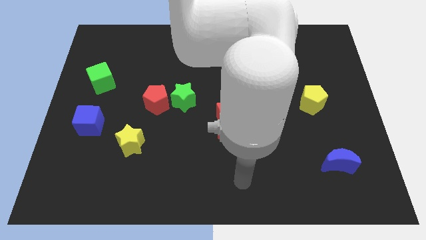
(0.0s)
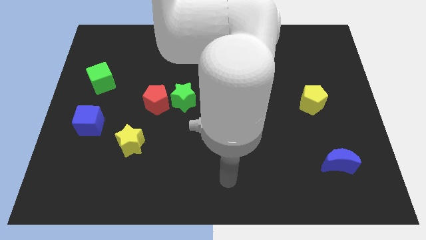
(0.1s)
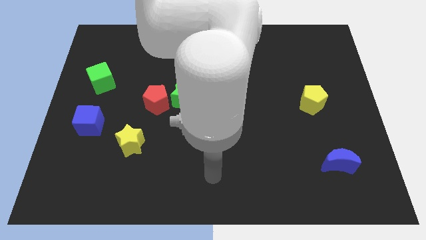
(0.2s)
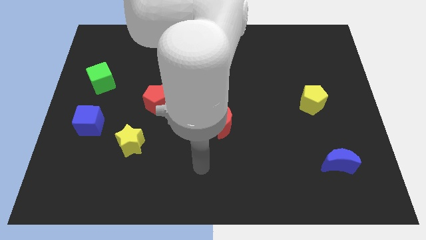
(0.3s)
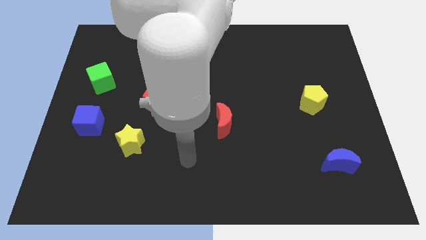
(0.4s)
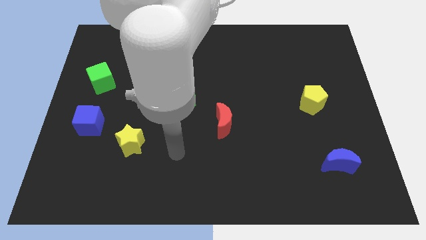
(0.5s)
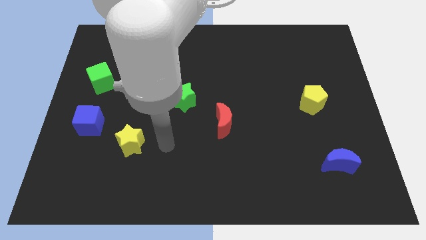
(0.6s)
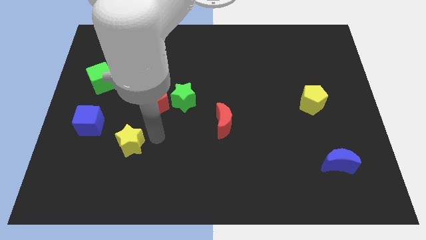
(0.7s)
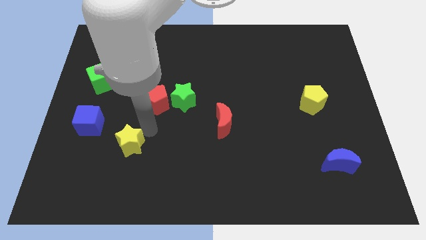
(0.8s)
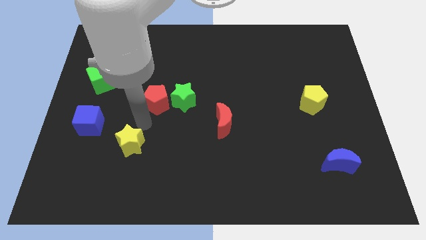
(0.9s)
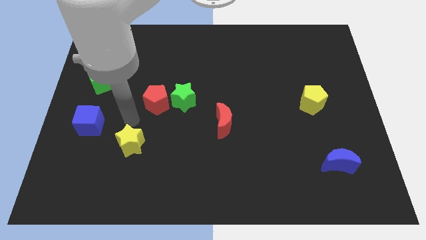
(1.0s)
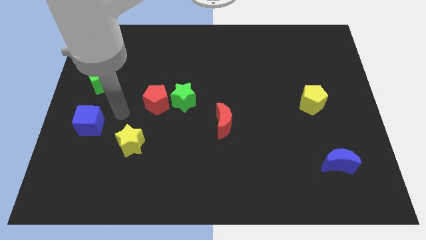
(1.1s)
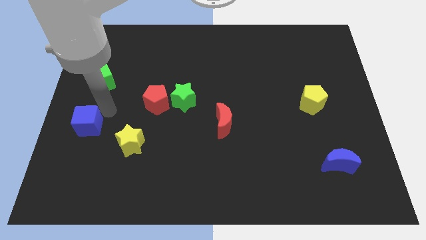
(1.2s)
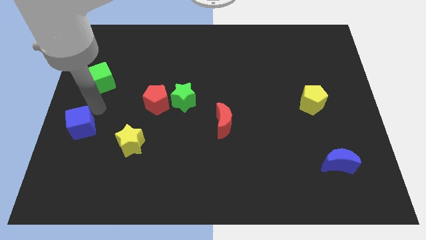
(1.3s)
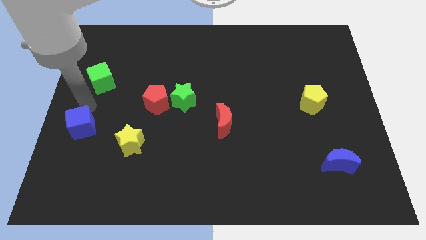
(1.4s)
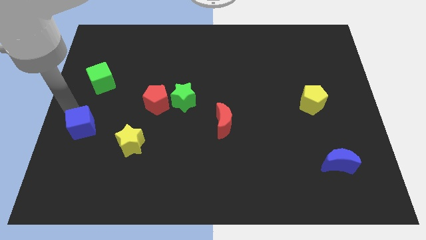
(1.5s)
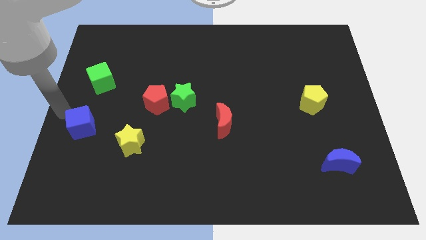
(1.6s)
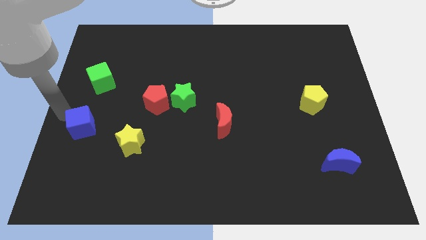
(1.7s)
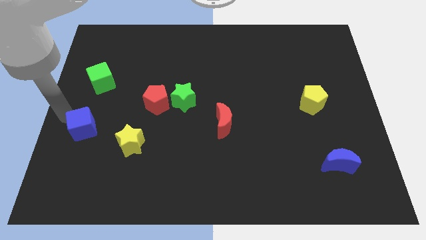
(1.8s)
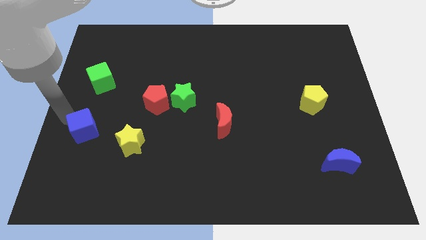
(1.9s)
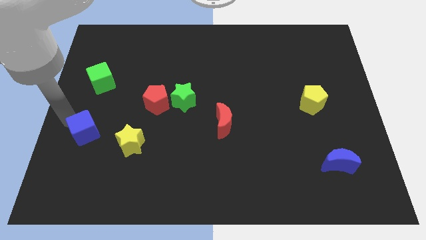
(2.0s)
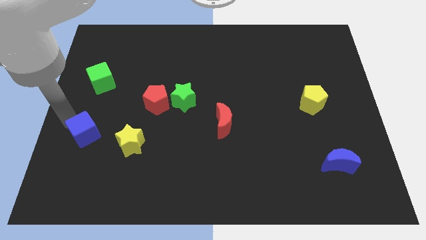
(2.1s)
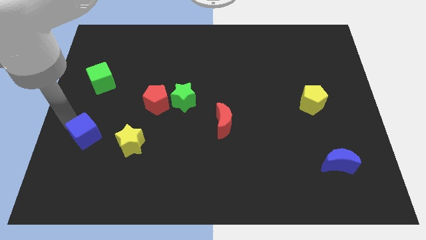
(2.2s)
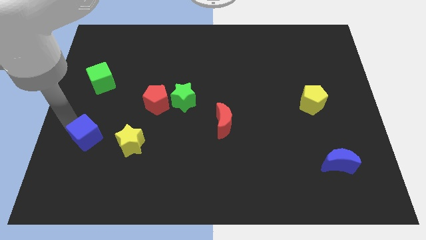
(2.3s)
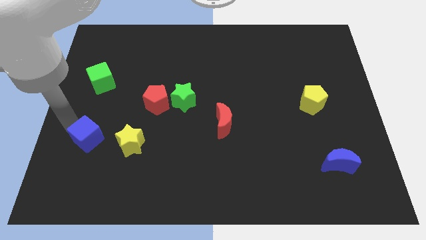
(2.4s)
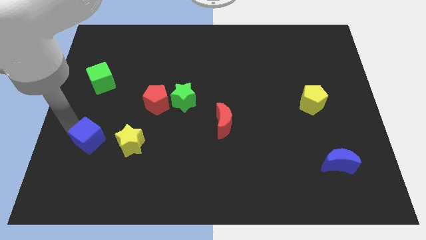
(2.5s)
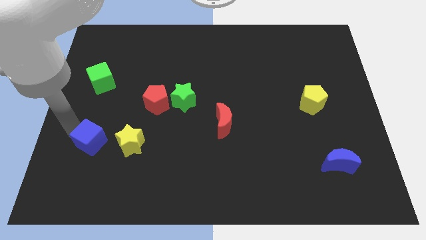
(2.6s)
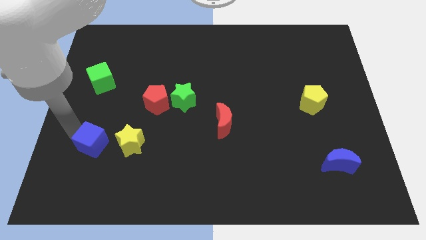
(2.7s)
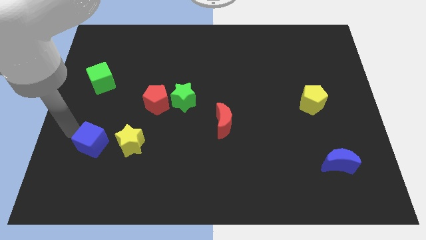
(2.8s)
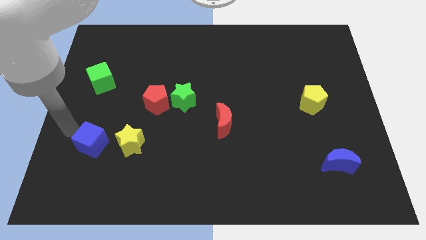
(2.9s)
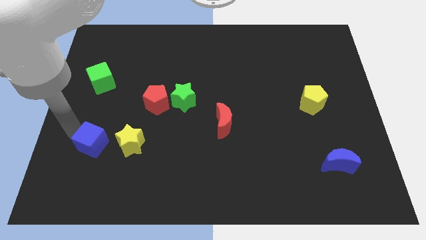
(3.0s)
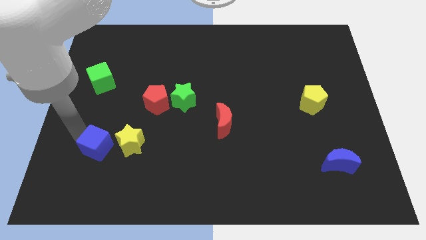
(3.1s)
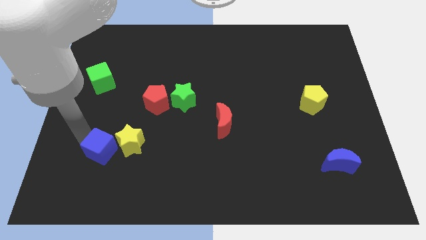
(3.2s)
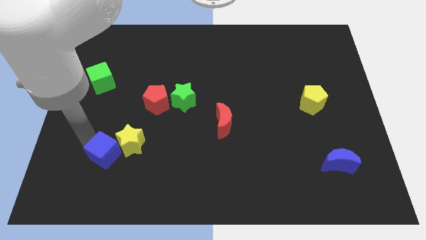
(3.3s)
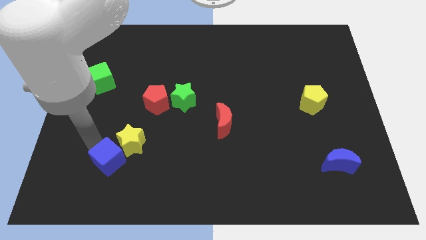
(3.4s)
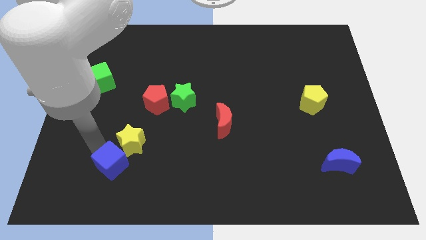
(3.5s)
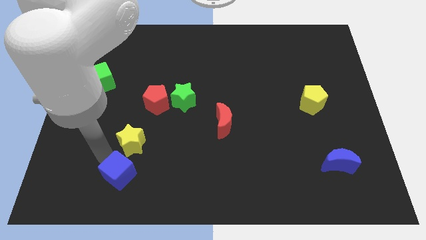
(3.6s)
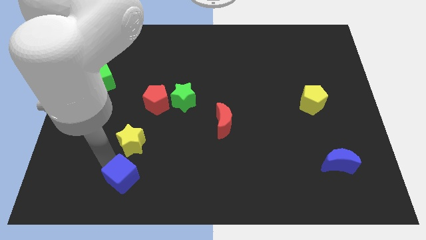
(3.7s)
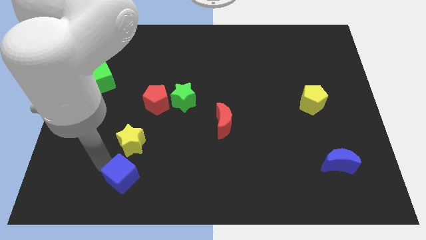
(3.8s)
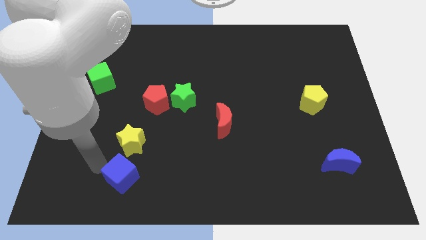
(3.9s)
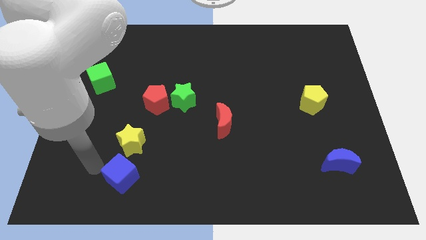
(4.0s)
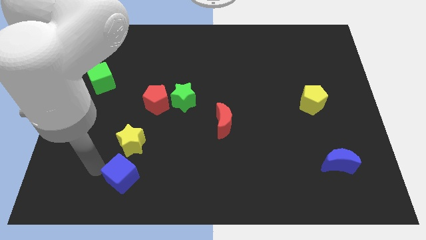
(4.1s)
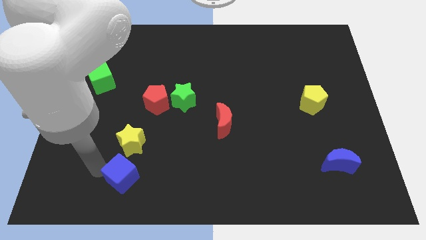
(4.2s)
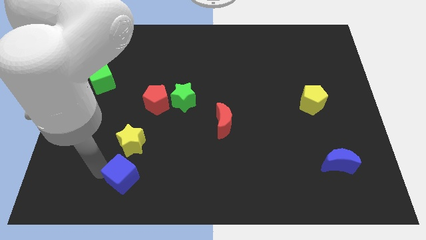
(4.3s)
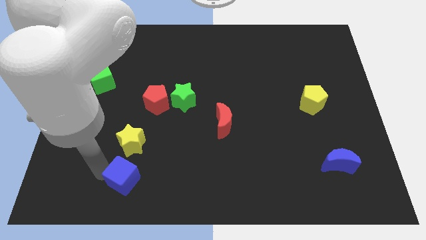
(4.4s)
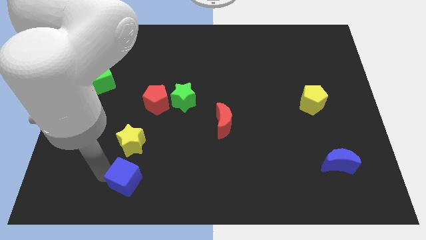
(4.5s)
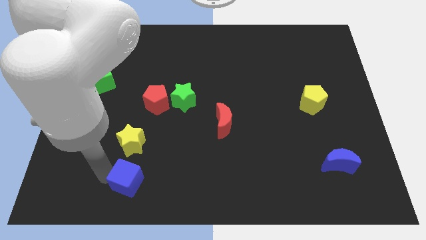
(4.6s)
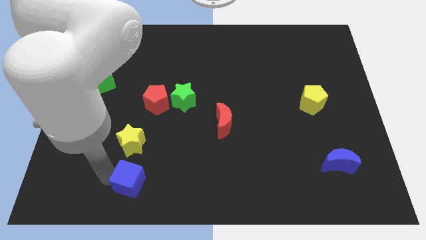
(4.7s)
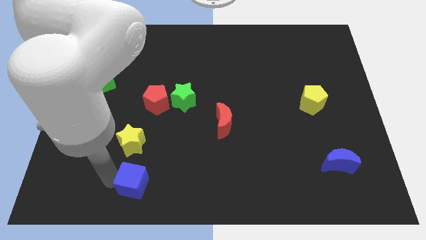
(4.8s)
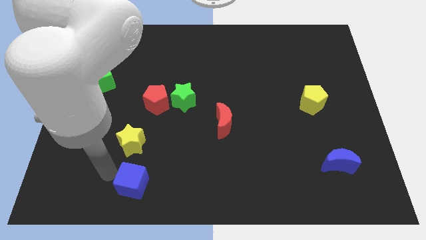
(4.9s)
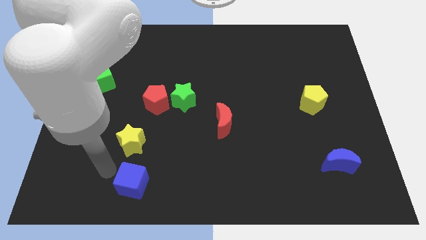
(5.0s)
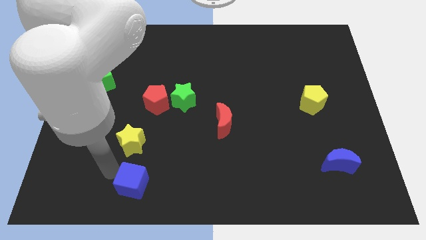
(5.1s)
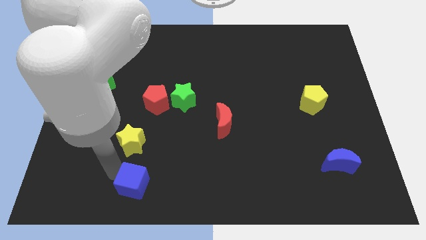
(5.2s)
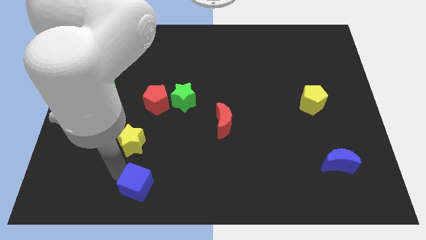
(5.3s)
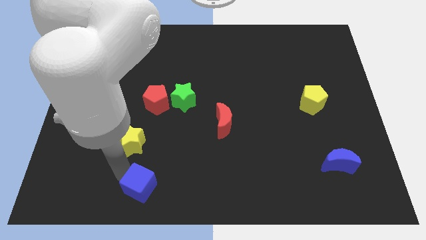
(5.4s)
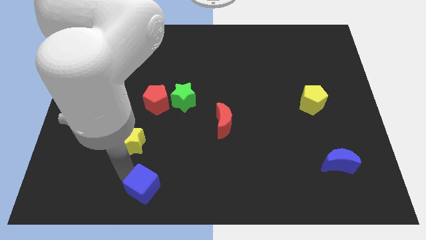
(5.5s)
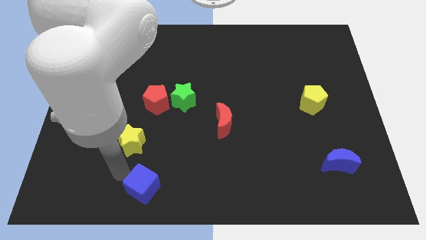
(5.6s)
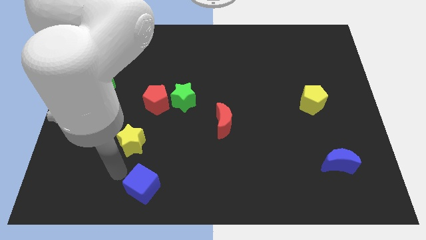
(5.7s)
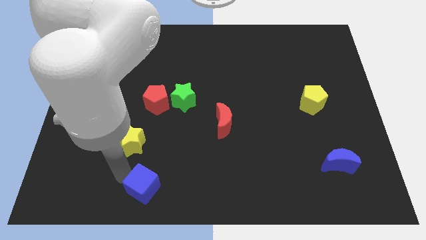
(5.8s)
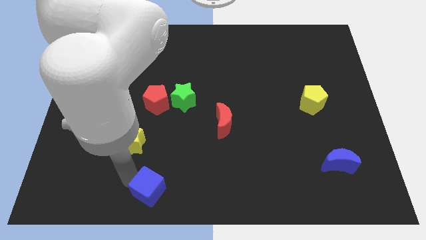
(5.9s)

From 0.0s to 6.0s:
move the blue cube to the bottom

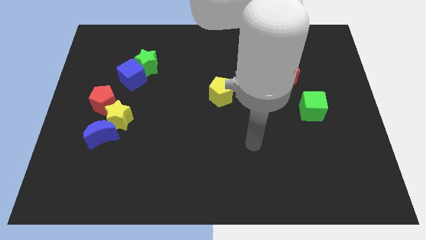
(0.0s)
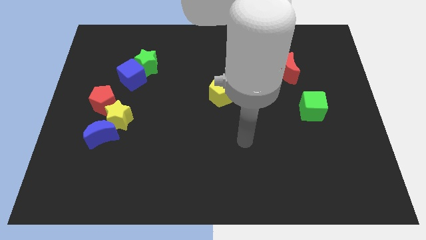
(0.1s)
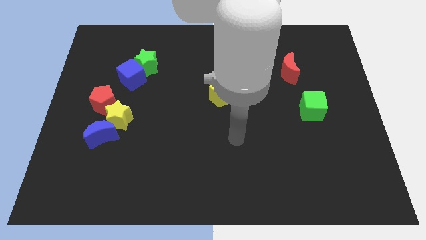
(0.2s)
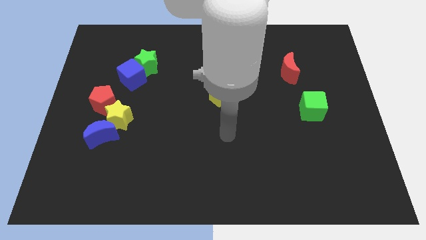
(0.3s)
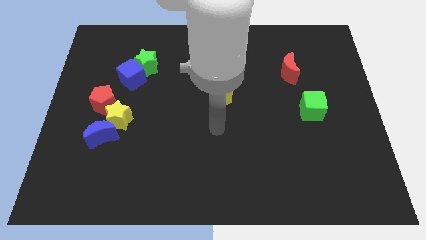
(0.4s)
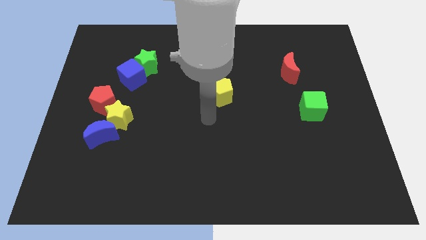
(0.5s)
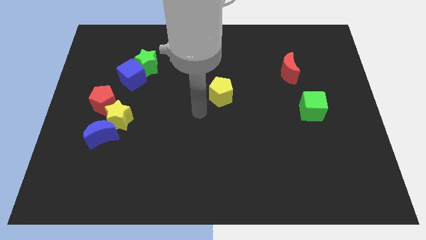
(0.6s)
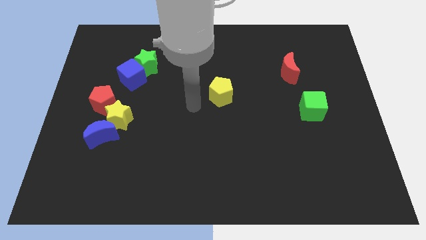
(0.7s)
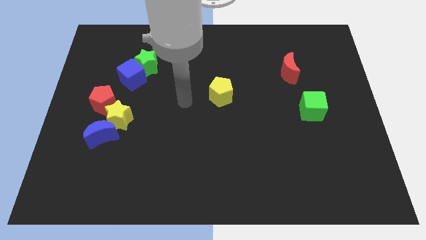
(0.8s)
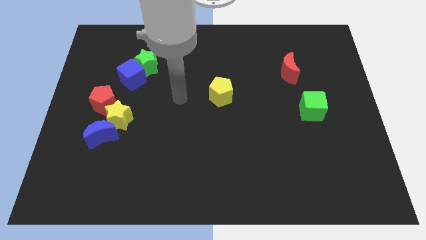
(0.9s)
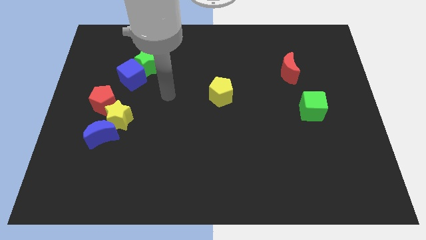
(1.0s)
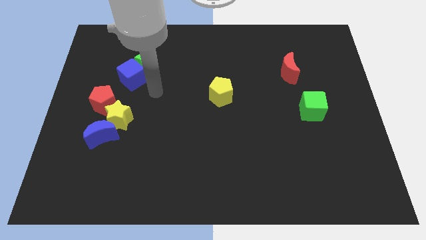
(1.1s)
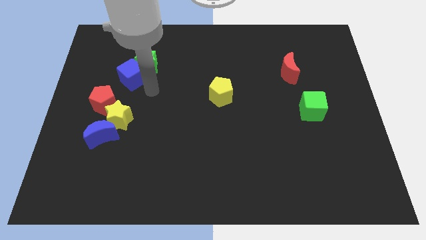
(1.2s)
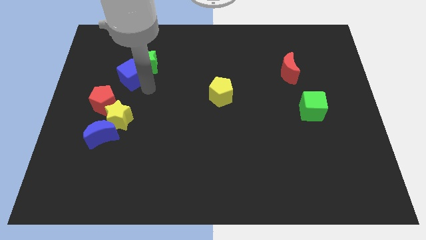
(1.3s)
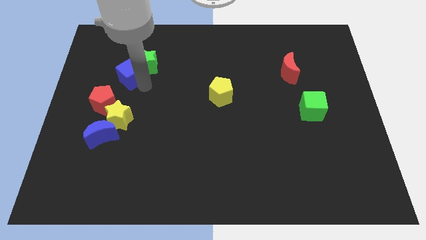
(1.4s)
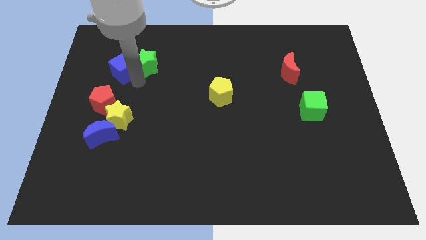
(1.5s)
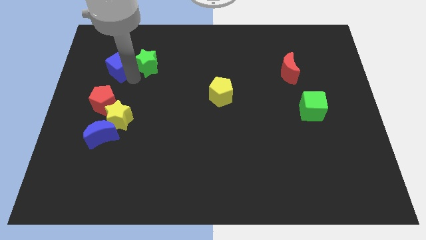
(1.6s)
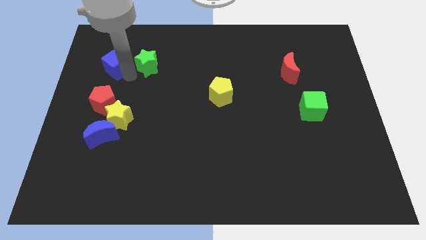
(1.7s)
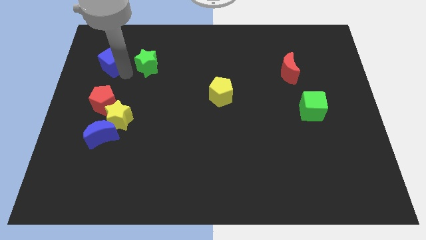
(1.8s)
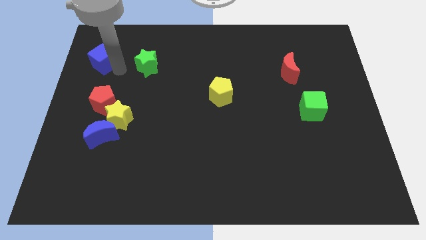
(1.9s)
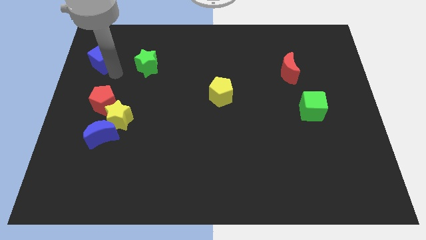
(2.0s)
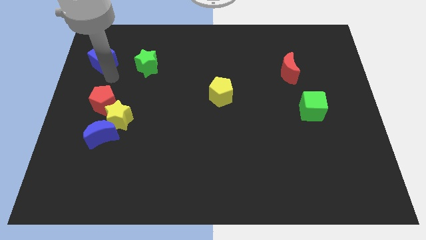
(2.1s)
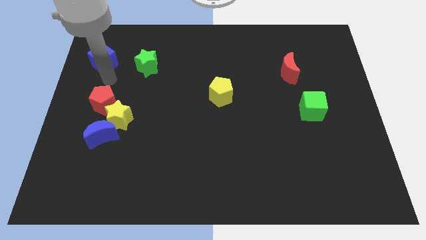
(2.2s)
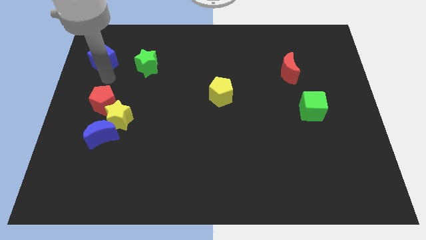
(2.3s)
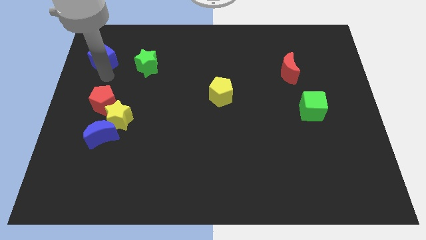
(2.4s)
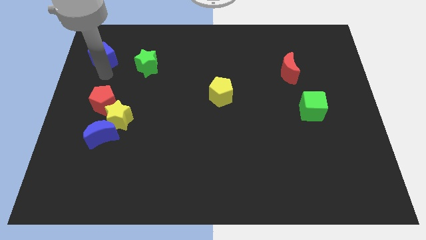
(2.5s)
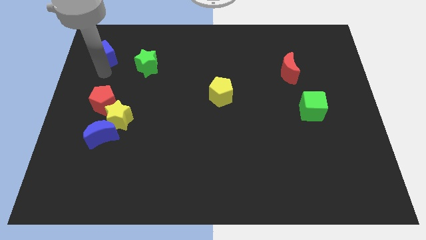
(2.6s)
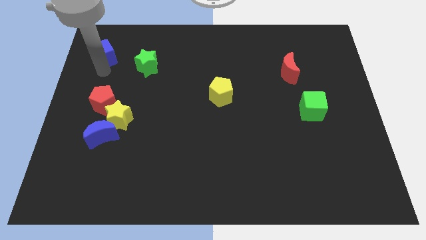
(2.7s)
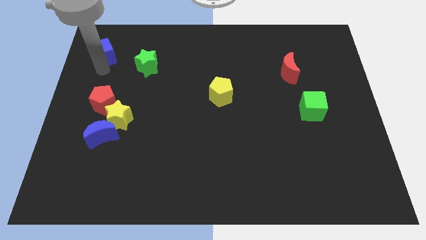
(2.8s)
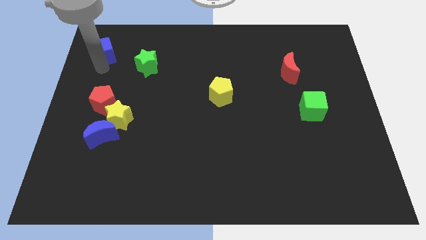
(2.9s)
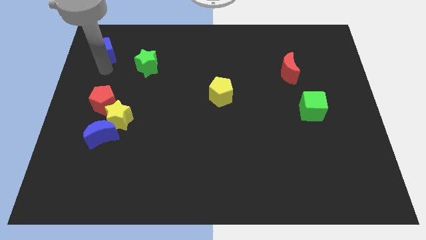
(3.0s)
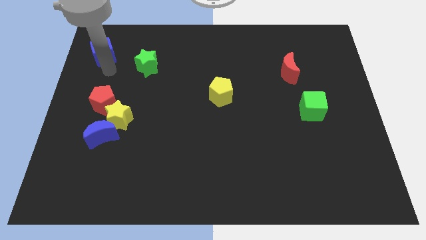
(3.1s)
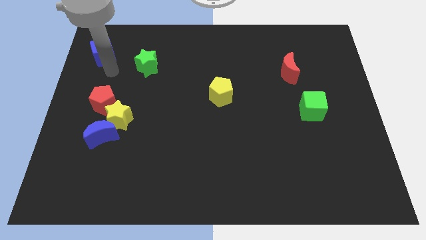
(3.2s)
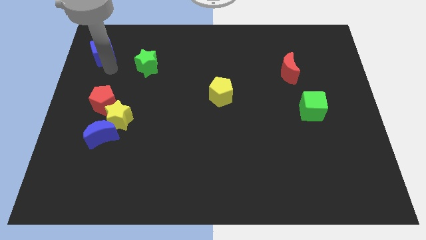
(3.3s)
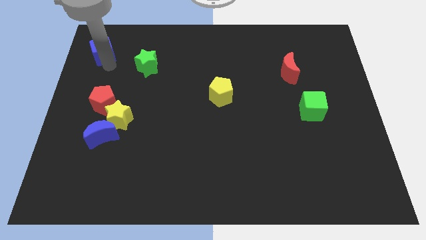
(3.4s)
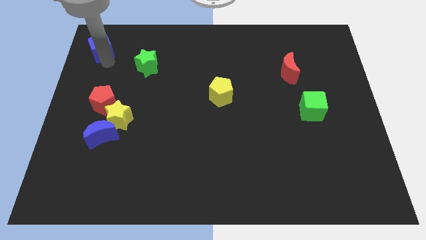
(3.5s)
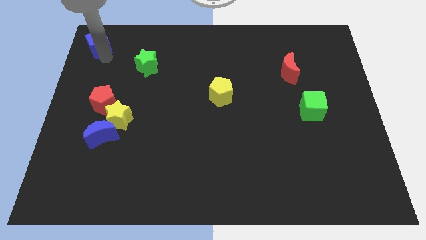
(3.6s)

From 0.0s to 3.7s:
slide the blue cube to the top left
